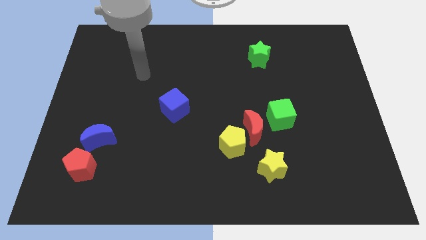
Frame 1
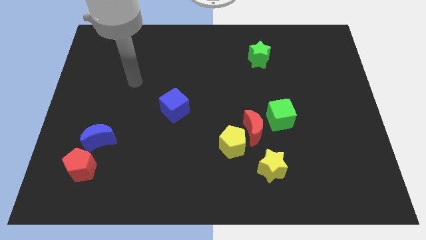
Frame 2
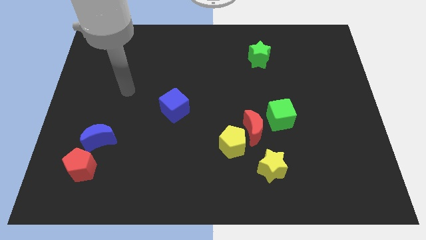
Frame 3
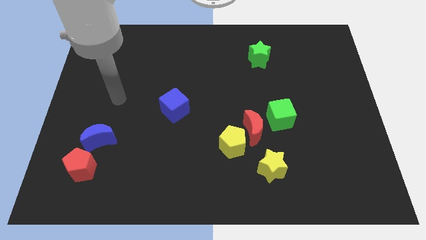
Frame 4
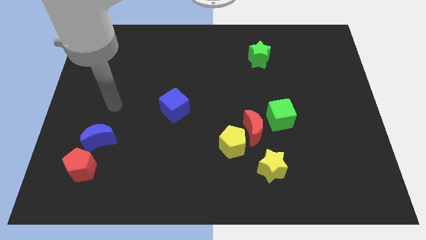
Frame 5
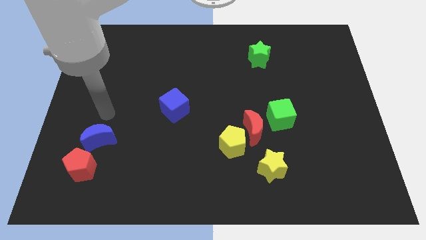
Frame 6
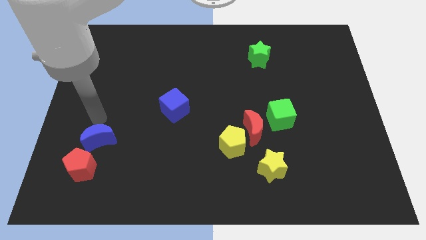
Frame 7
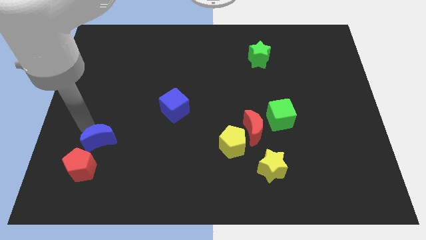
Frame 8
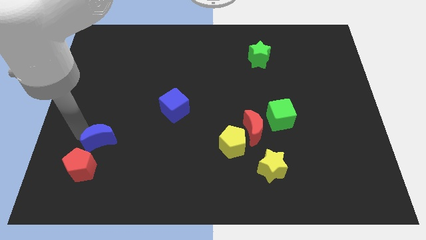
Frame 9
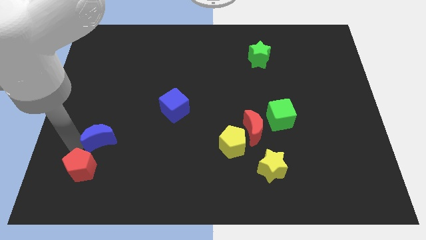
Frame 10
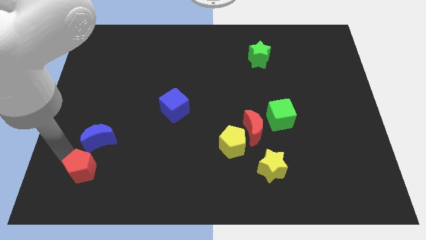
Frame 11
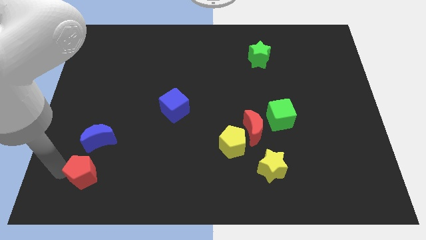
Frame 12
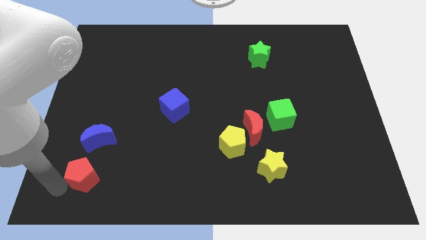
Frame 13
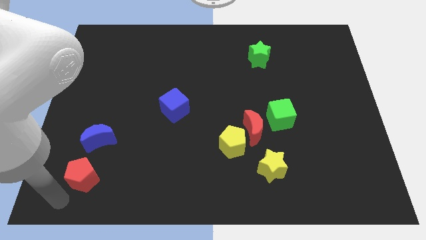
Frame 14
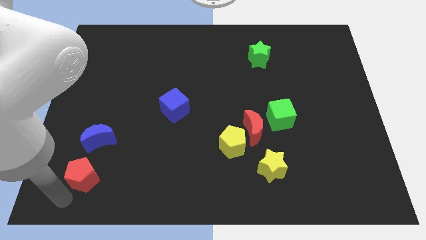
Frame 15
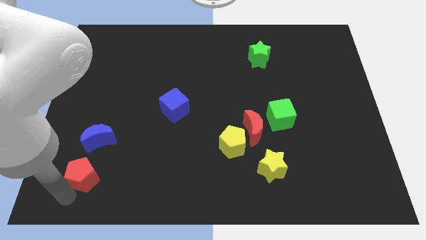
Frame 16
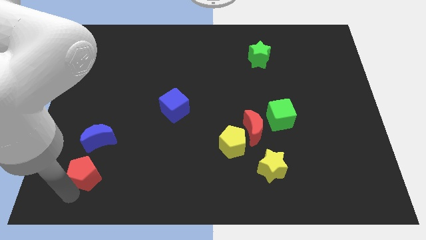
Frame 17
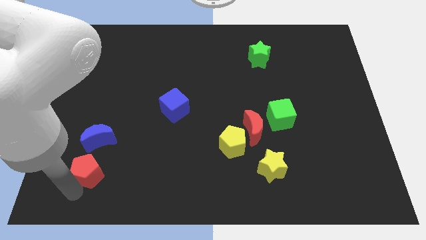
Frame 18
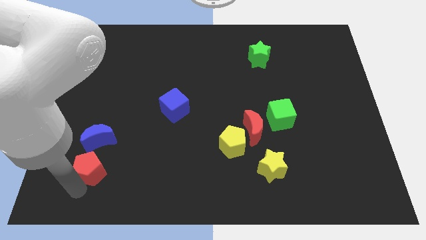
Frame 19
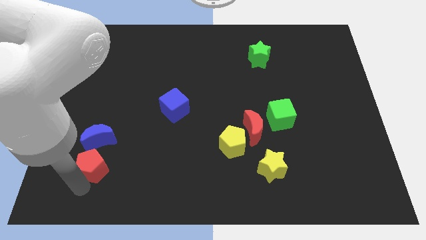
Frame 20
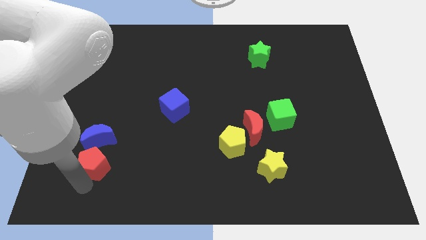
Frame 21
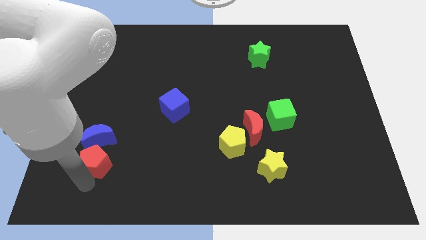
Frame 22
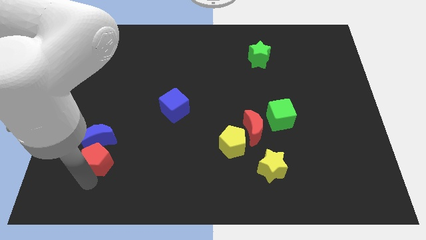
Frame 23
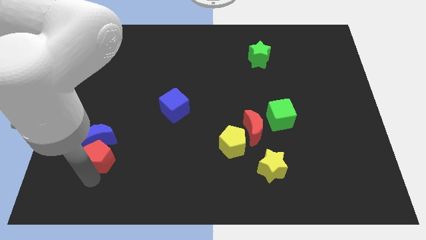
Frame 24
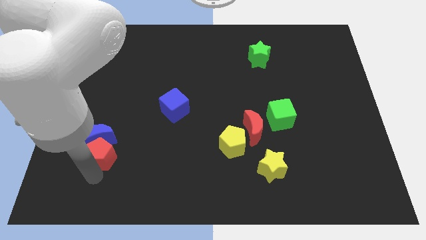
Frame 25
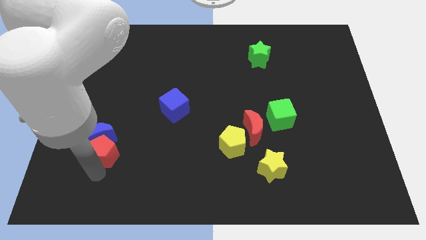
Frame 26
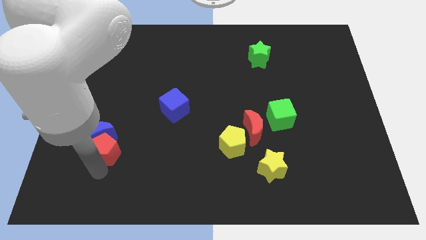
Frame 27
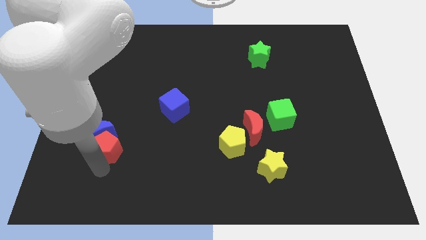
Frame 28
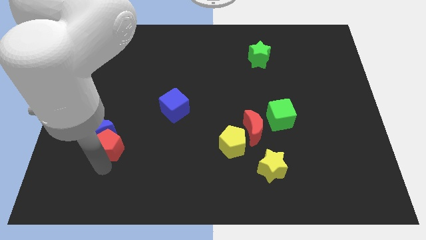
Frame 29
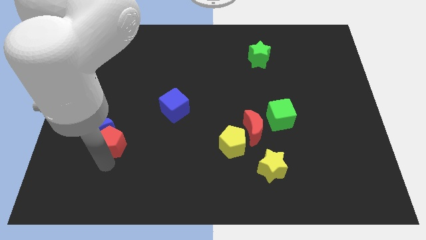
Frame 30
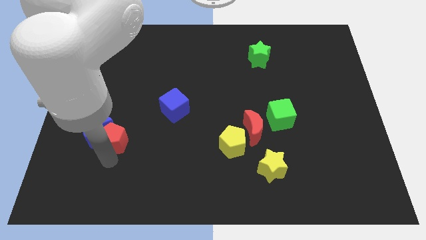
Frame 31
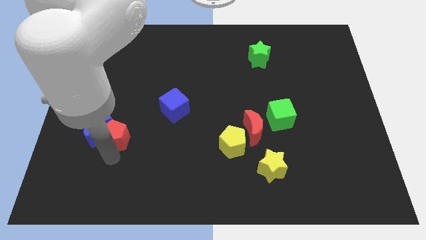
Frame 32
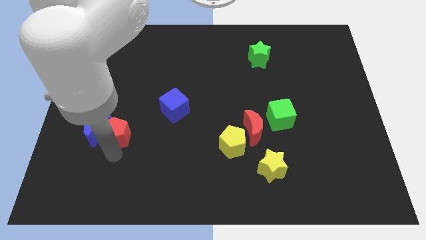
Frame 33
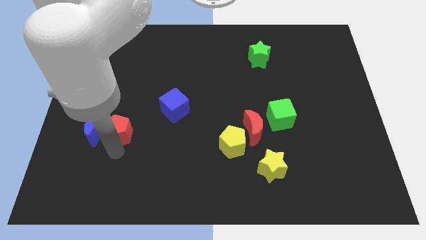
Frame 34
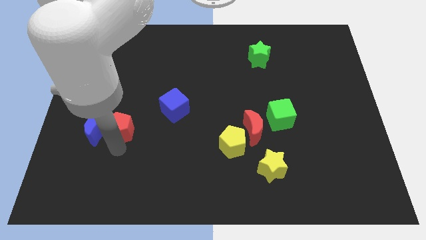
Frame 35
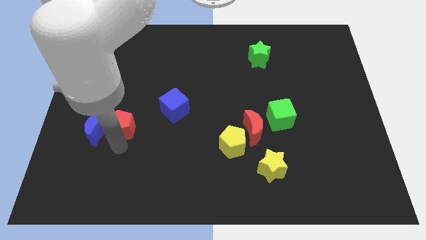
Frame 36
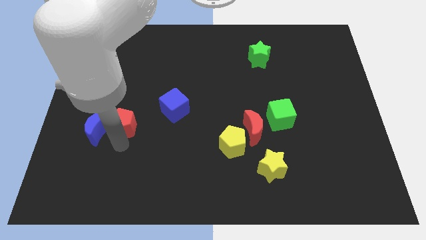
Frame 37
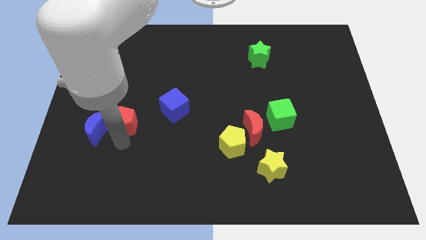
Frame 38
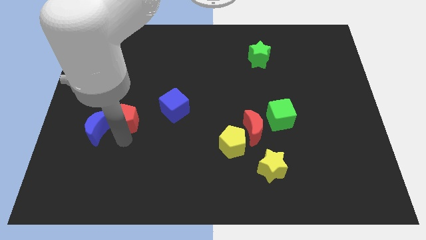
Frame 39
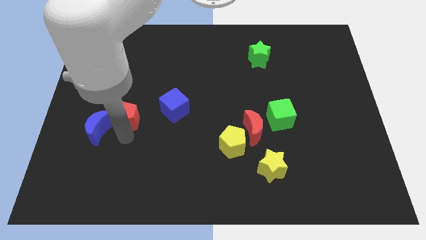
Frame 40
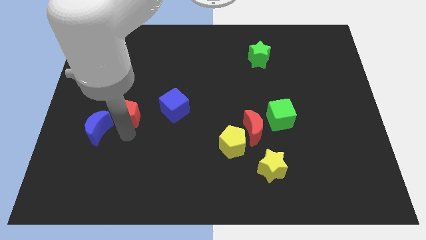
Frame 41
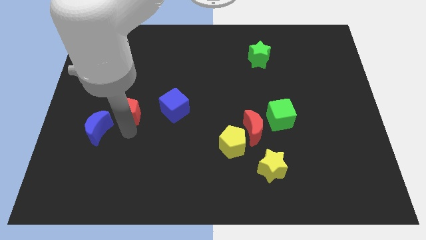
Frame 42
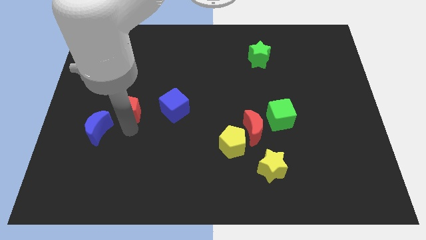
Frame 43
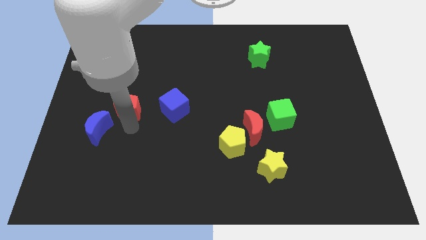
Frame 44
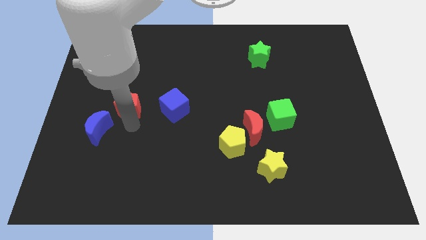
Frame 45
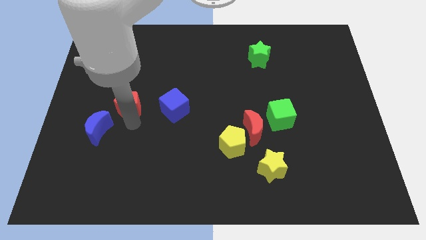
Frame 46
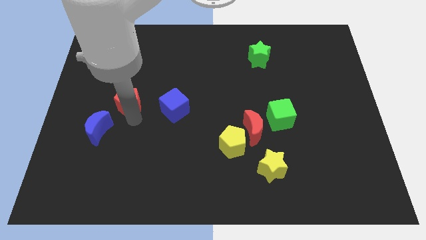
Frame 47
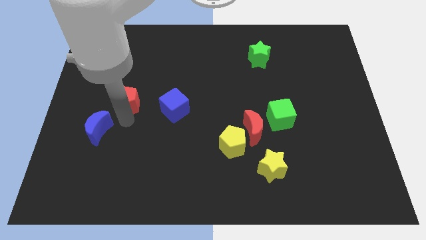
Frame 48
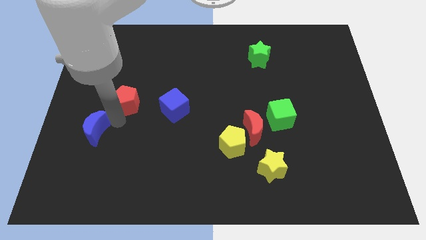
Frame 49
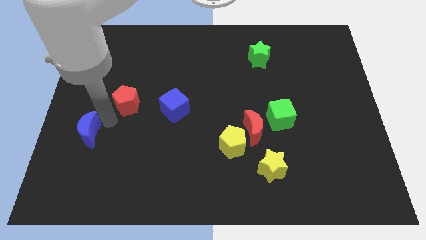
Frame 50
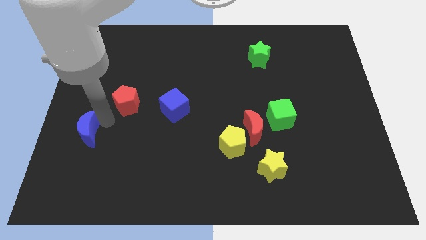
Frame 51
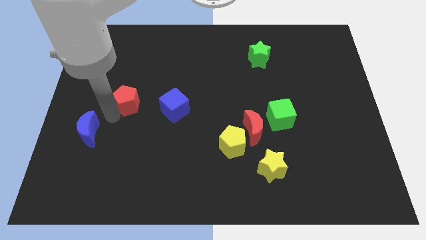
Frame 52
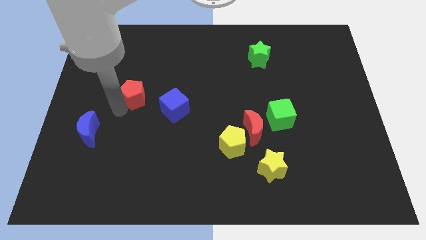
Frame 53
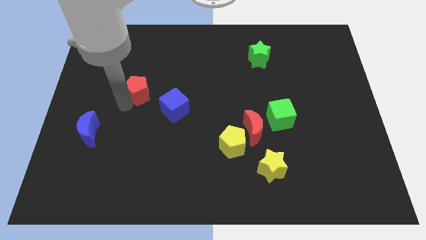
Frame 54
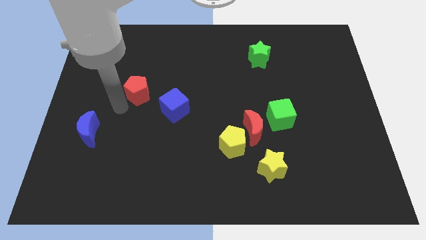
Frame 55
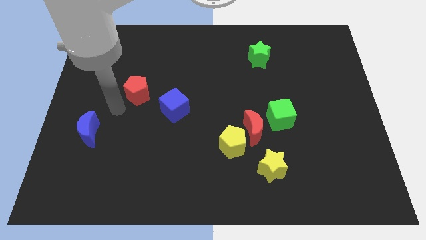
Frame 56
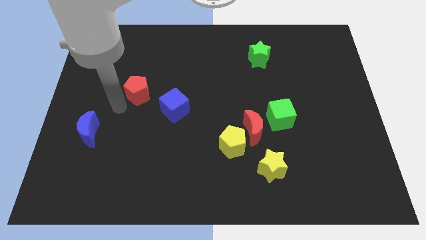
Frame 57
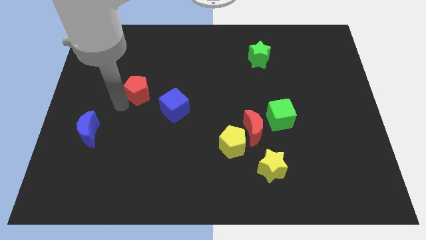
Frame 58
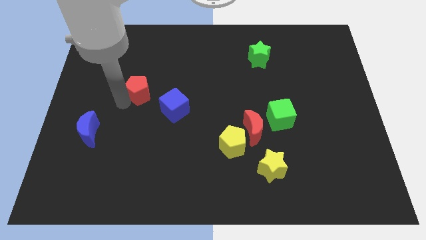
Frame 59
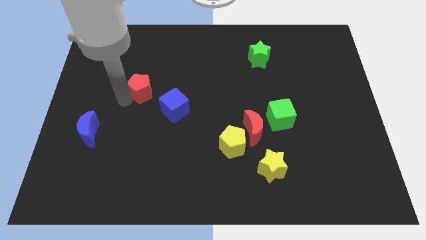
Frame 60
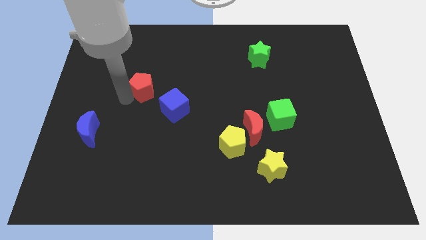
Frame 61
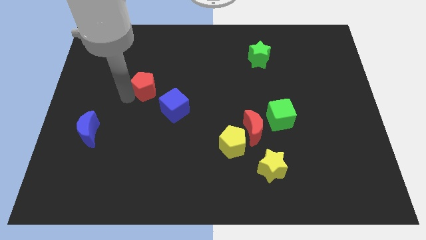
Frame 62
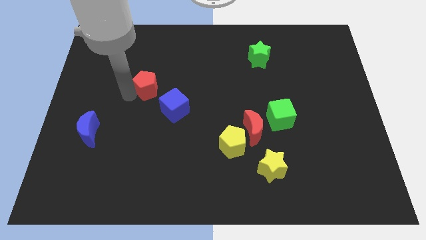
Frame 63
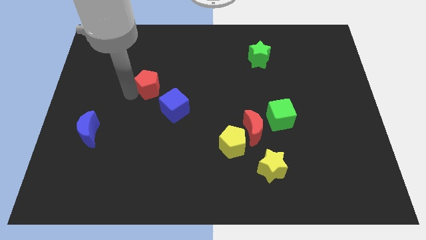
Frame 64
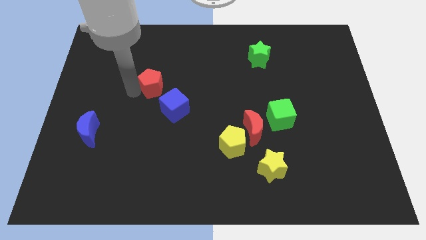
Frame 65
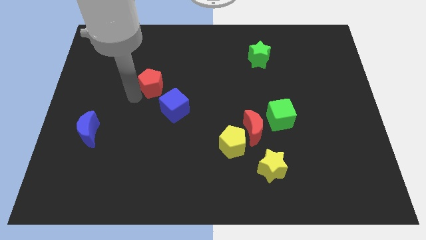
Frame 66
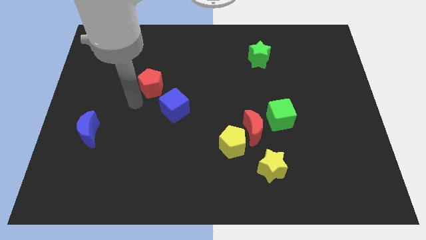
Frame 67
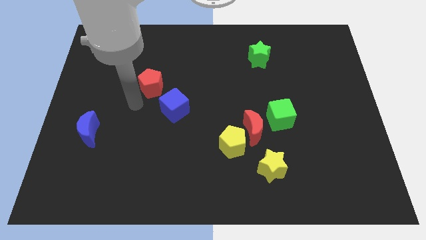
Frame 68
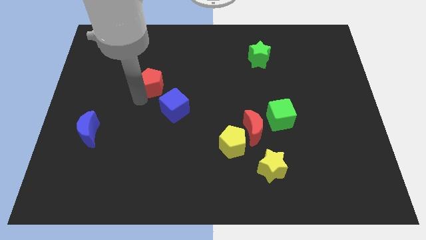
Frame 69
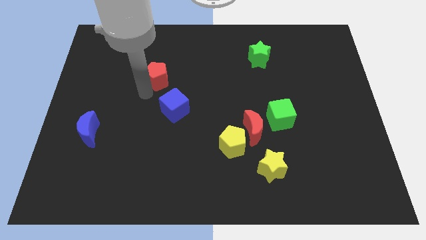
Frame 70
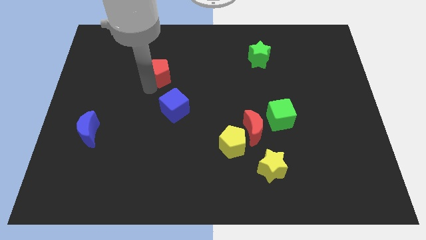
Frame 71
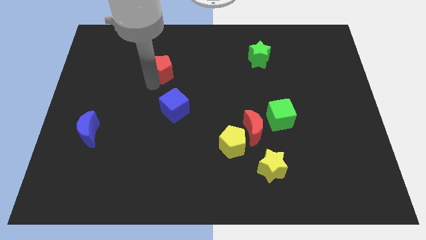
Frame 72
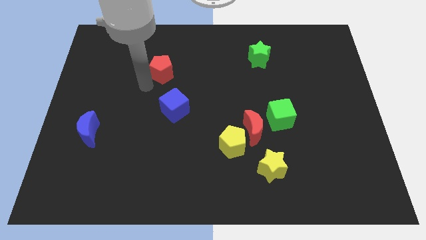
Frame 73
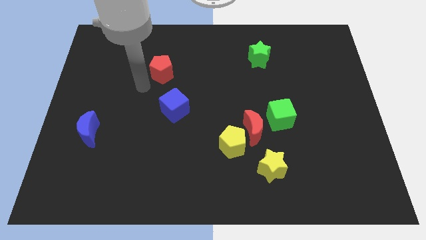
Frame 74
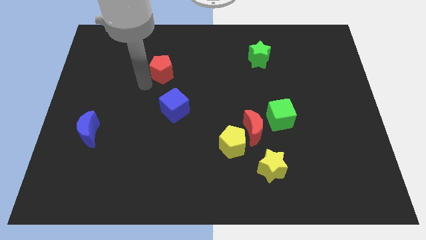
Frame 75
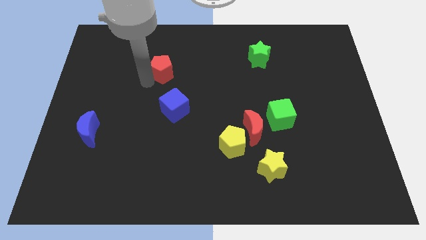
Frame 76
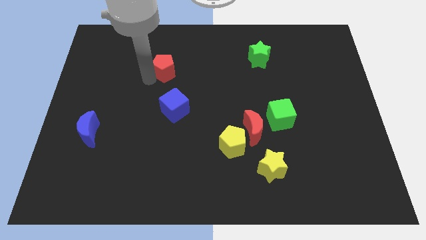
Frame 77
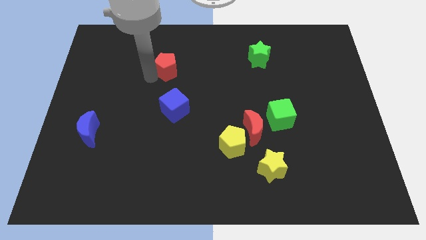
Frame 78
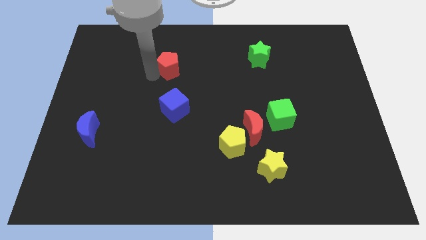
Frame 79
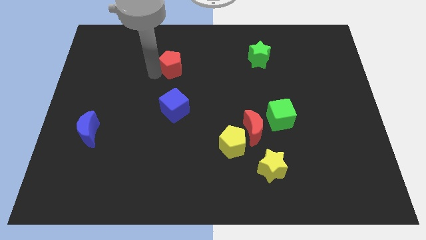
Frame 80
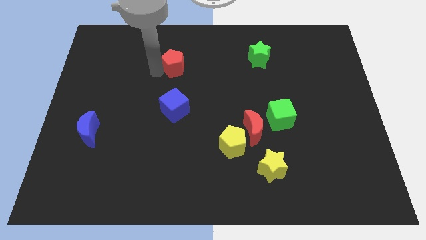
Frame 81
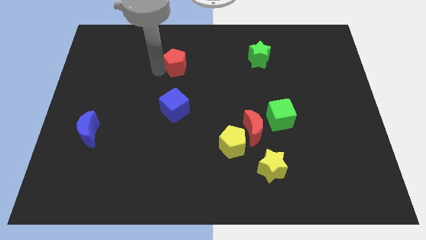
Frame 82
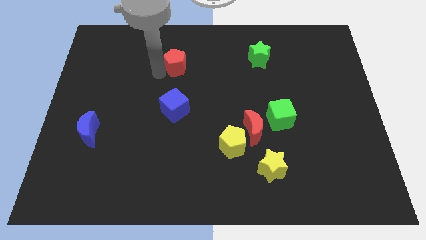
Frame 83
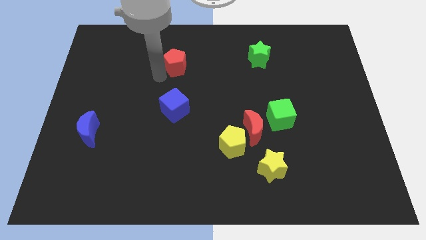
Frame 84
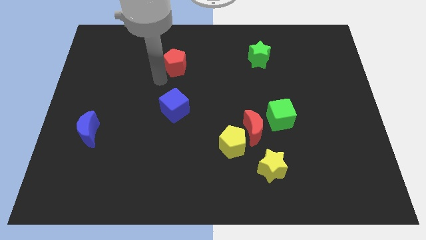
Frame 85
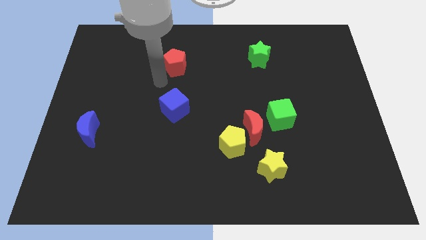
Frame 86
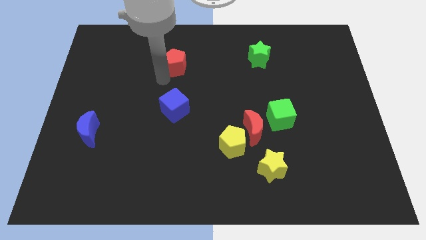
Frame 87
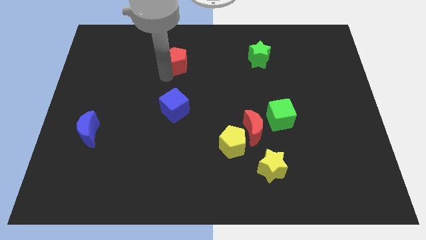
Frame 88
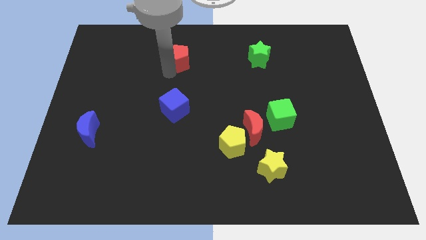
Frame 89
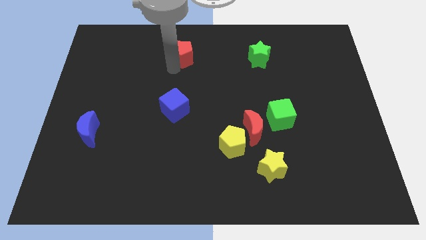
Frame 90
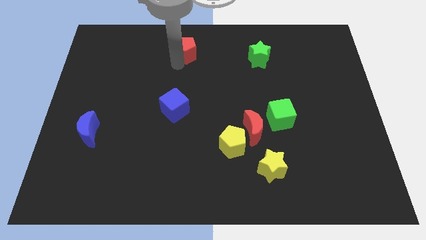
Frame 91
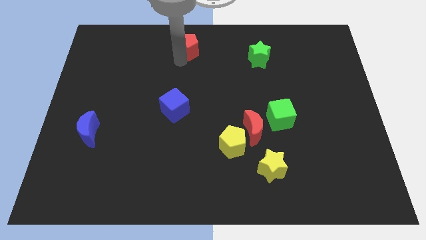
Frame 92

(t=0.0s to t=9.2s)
slide the red pentagon to the towards your base
